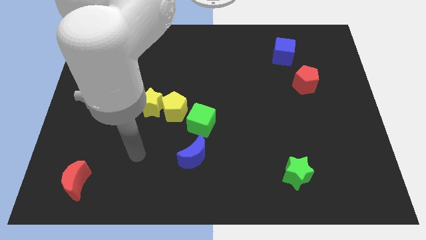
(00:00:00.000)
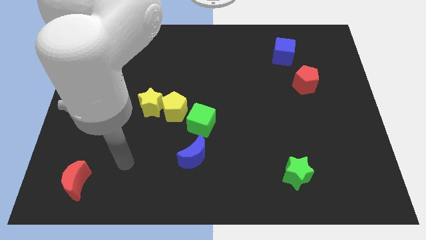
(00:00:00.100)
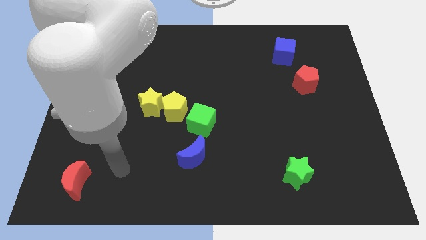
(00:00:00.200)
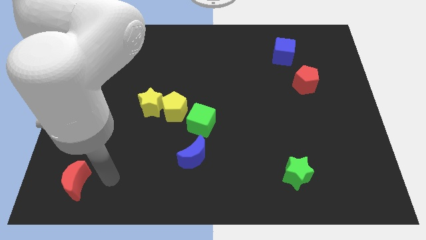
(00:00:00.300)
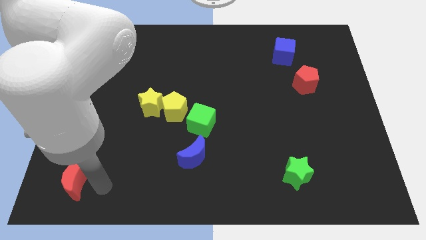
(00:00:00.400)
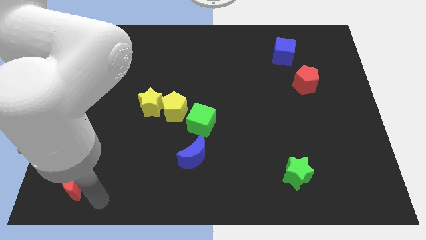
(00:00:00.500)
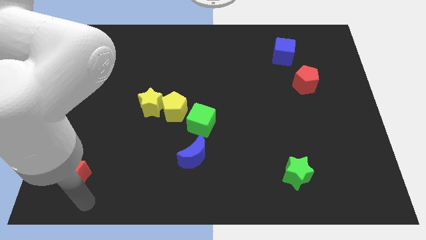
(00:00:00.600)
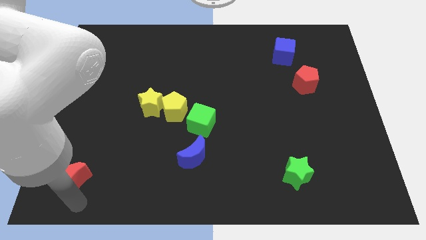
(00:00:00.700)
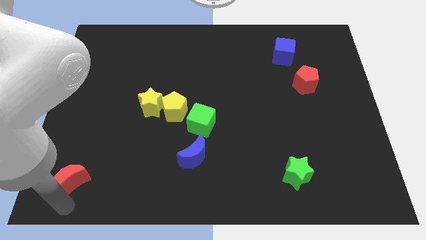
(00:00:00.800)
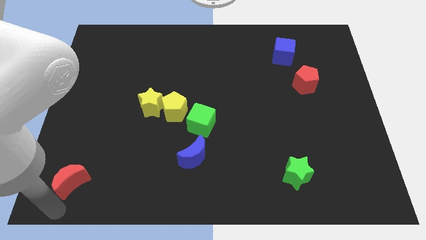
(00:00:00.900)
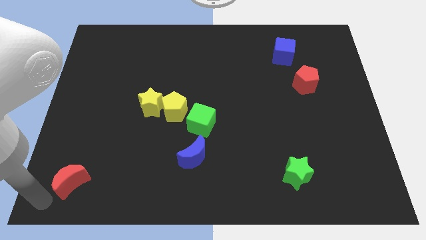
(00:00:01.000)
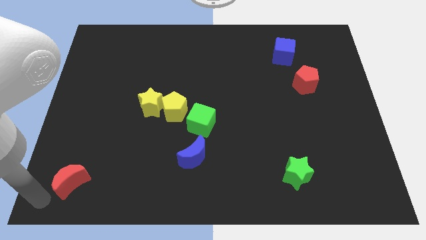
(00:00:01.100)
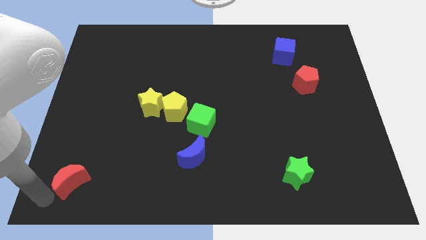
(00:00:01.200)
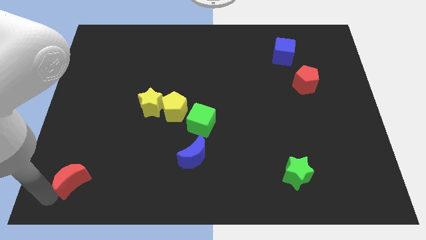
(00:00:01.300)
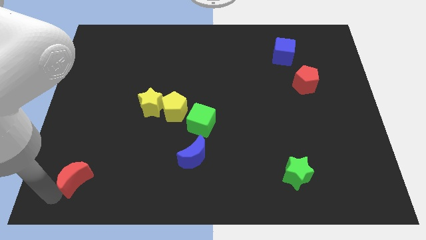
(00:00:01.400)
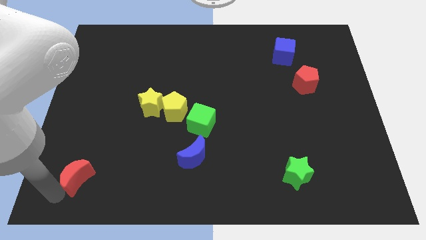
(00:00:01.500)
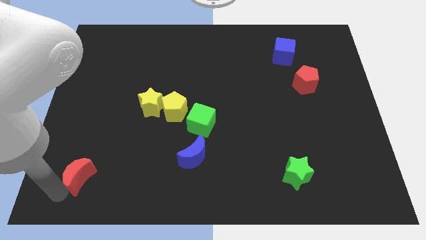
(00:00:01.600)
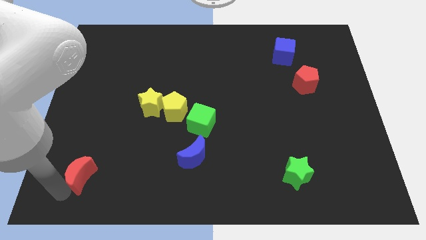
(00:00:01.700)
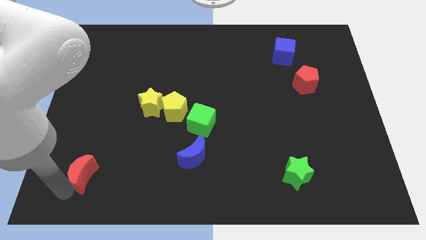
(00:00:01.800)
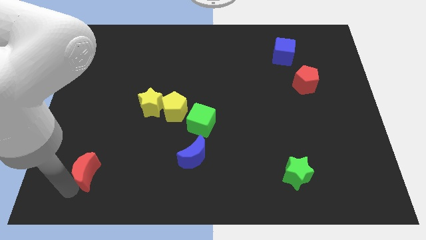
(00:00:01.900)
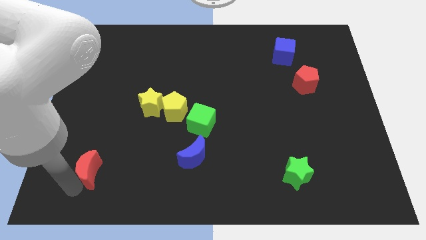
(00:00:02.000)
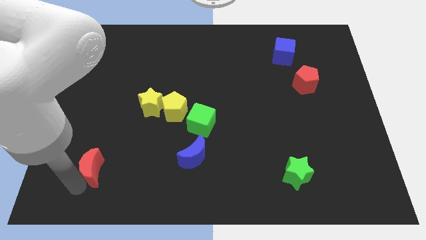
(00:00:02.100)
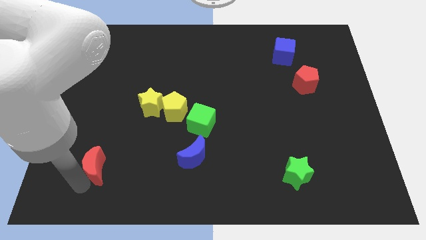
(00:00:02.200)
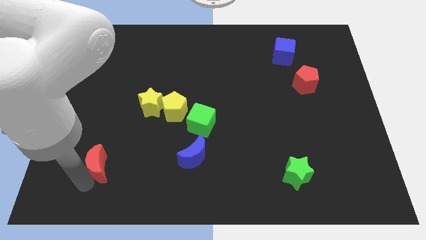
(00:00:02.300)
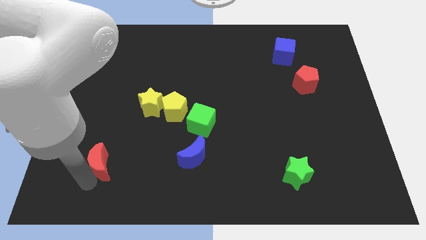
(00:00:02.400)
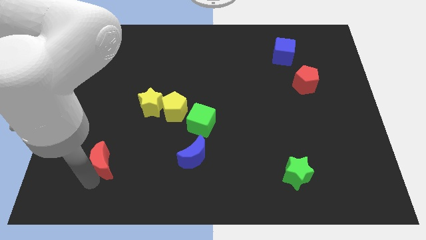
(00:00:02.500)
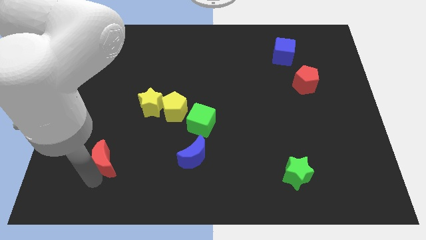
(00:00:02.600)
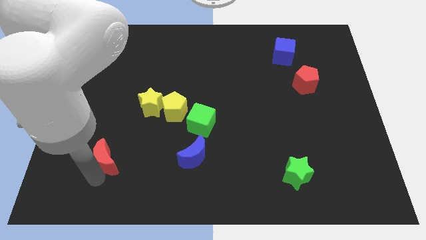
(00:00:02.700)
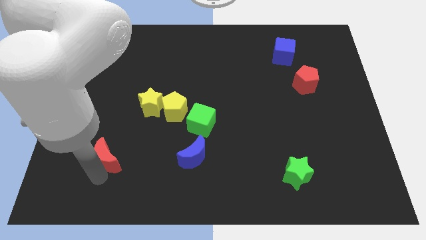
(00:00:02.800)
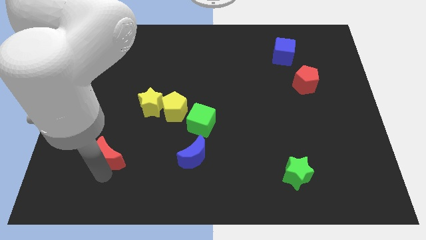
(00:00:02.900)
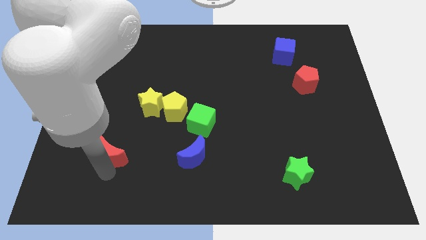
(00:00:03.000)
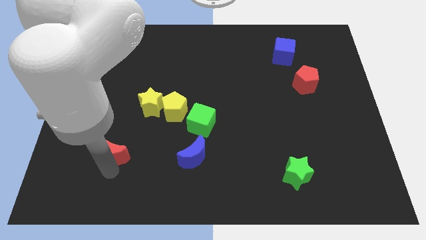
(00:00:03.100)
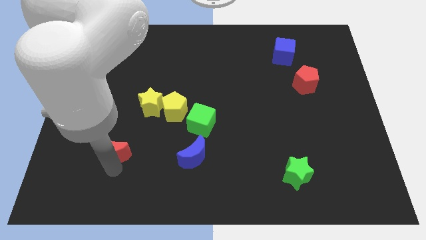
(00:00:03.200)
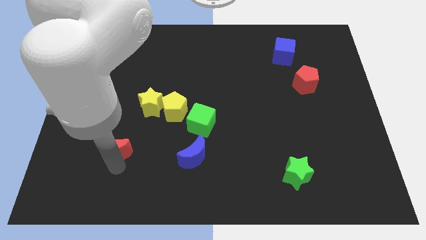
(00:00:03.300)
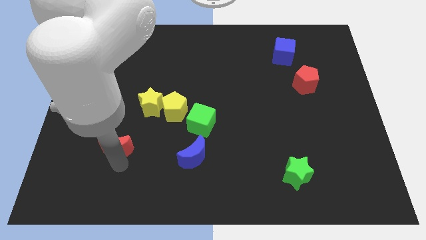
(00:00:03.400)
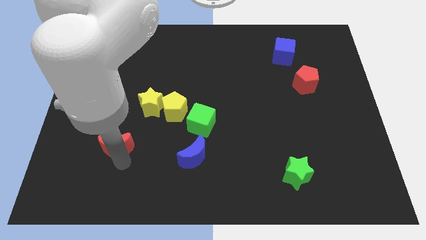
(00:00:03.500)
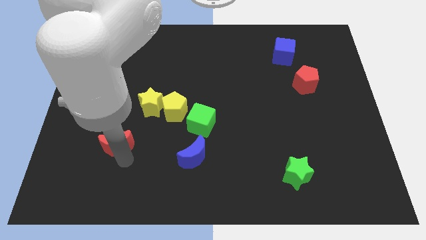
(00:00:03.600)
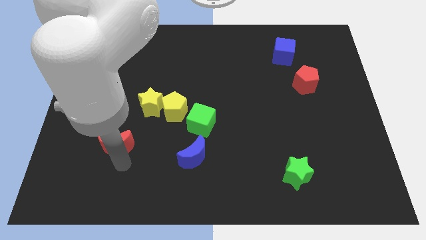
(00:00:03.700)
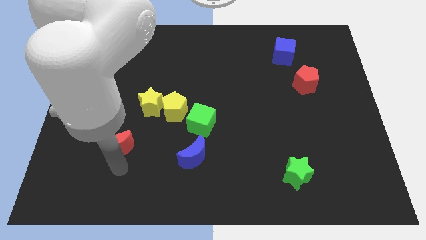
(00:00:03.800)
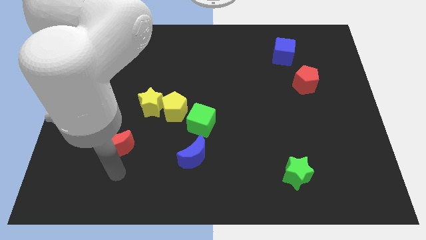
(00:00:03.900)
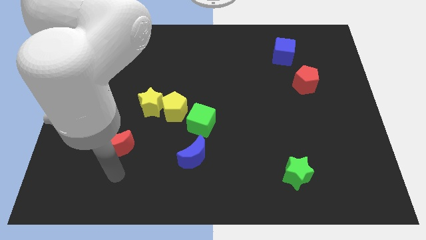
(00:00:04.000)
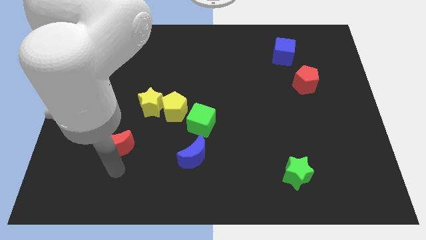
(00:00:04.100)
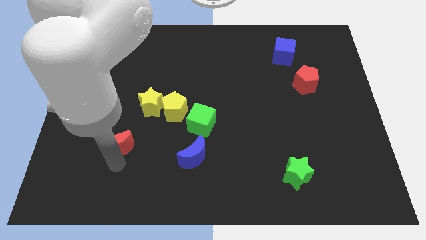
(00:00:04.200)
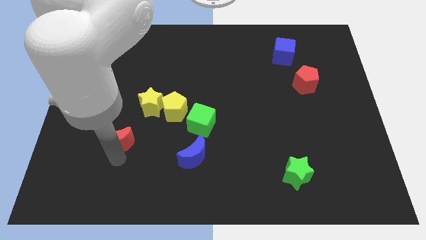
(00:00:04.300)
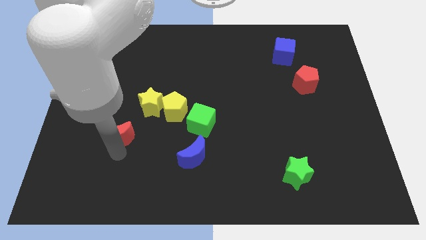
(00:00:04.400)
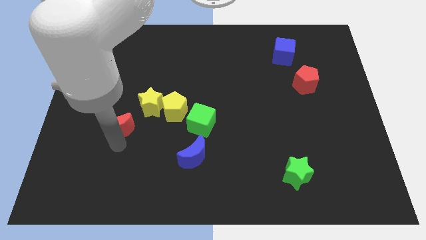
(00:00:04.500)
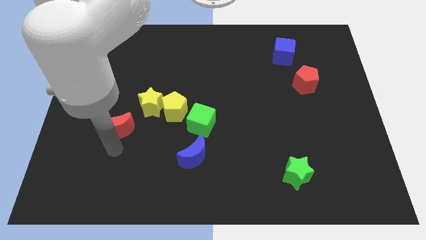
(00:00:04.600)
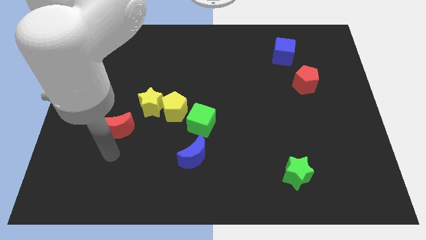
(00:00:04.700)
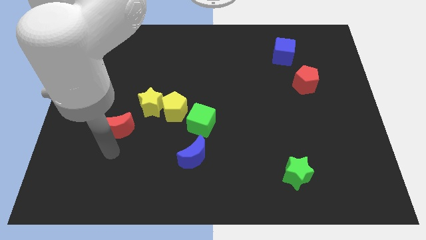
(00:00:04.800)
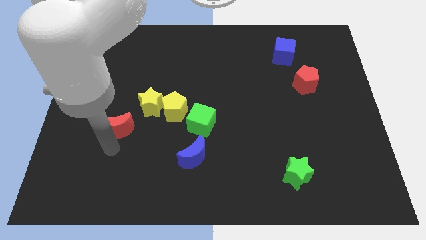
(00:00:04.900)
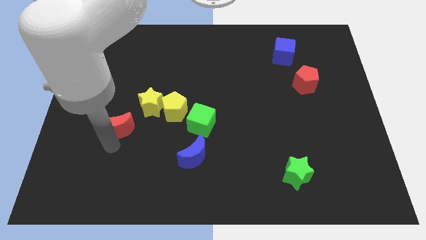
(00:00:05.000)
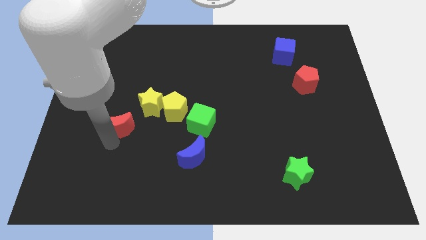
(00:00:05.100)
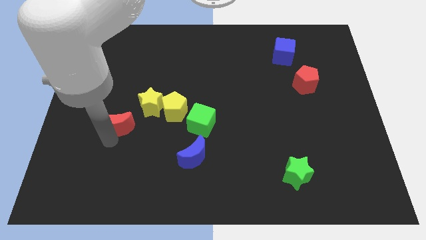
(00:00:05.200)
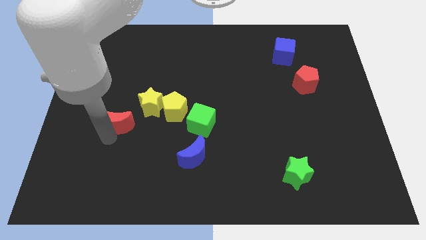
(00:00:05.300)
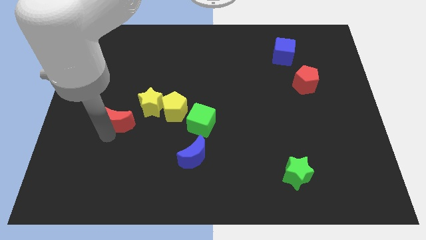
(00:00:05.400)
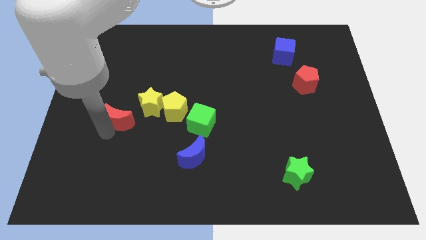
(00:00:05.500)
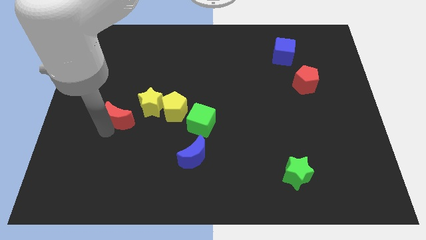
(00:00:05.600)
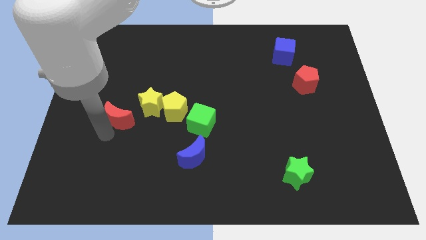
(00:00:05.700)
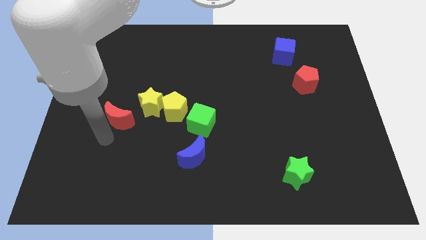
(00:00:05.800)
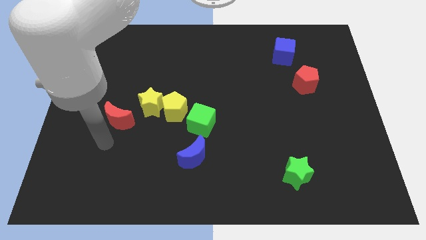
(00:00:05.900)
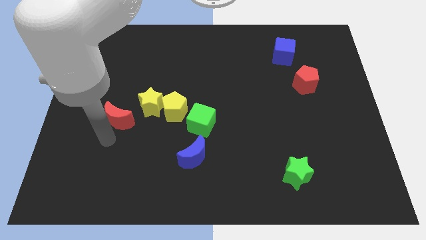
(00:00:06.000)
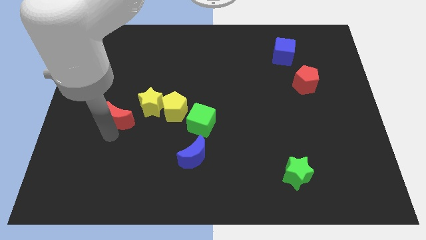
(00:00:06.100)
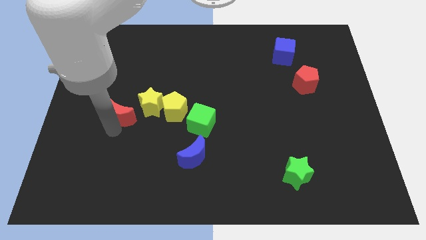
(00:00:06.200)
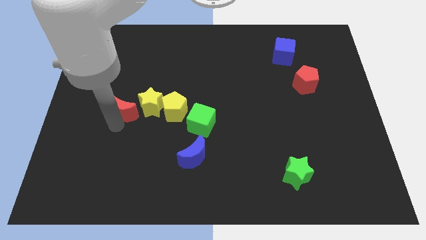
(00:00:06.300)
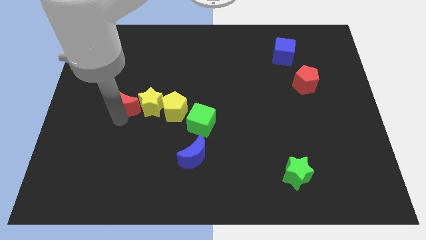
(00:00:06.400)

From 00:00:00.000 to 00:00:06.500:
put the red moon diagonally up and to the left of the yellow star
